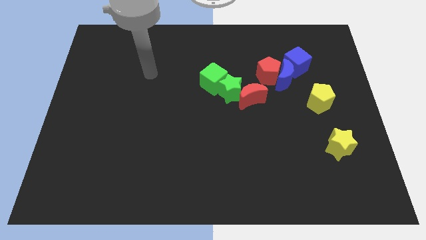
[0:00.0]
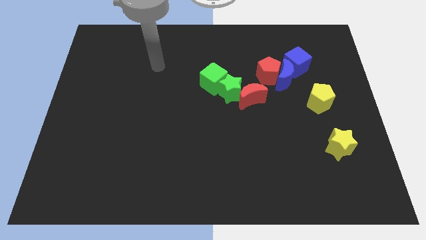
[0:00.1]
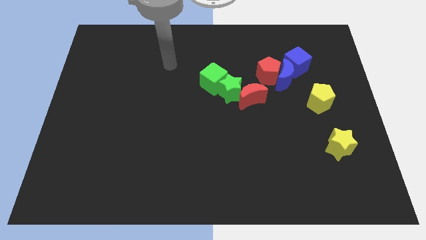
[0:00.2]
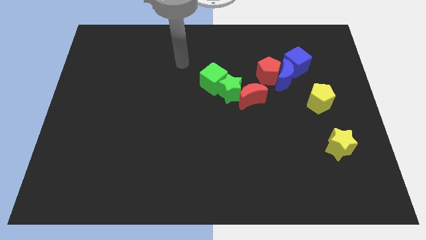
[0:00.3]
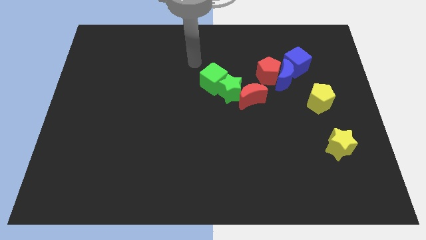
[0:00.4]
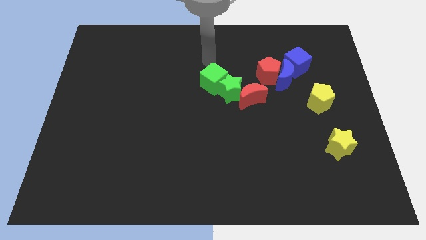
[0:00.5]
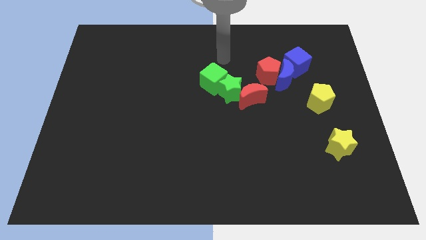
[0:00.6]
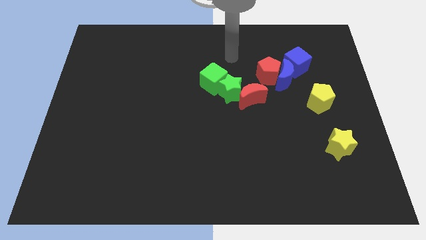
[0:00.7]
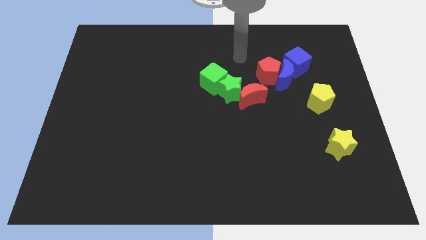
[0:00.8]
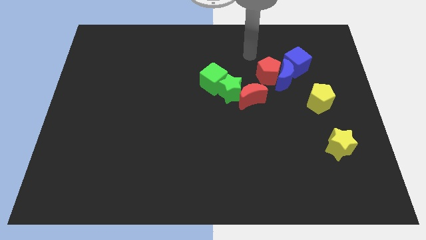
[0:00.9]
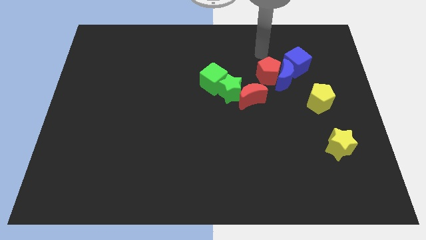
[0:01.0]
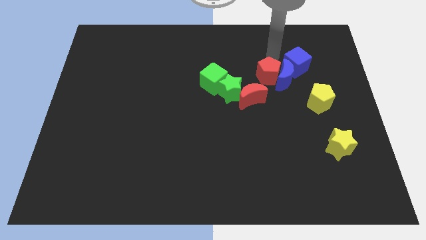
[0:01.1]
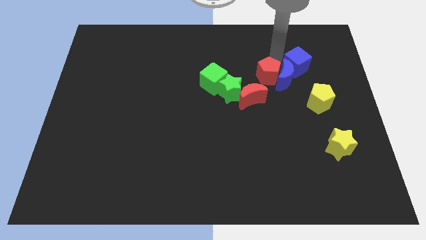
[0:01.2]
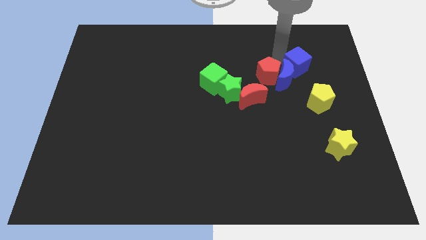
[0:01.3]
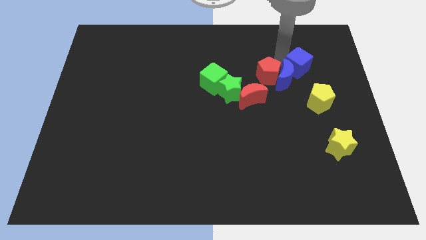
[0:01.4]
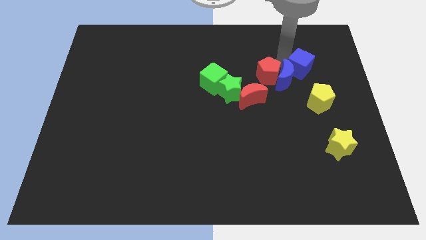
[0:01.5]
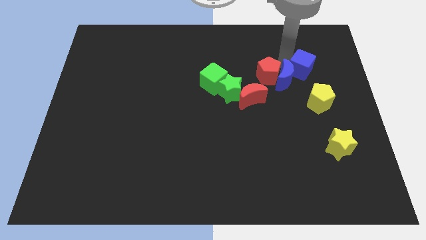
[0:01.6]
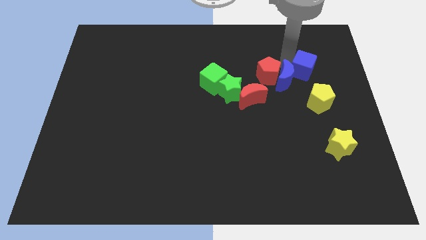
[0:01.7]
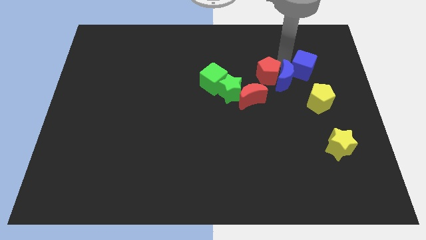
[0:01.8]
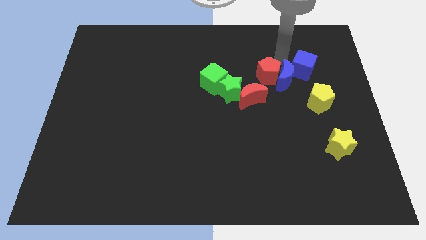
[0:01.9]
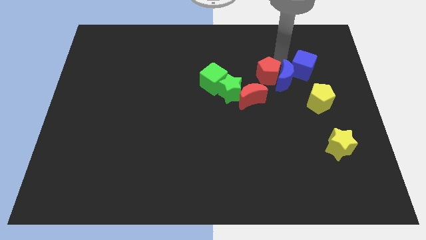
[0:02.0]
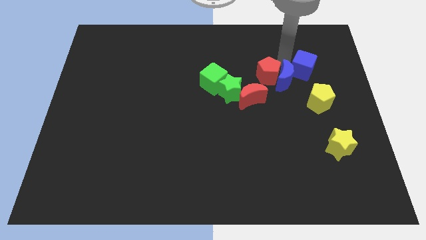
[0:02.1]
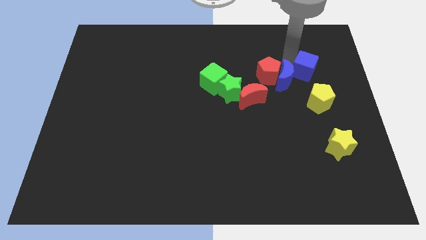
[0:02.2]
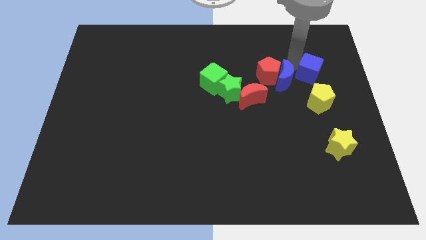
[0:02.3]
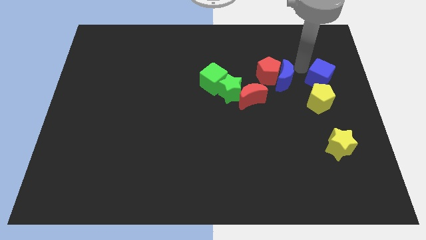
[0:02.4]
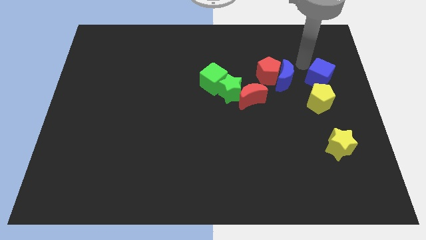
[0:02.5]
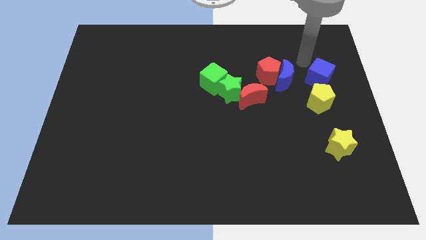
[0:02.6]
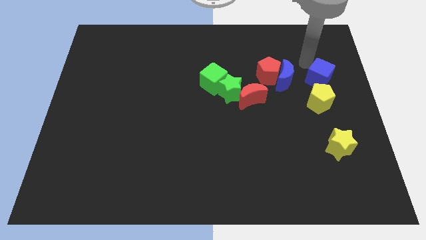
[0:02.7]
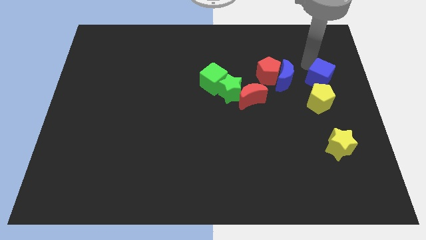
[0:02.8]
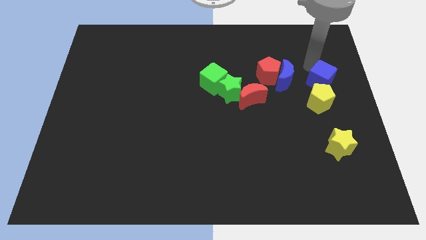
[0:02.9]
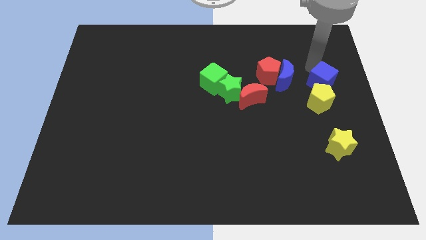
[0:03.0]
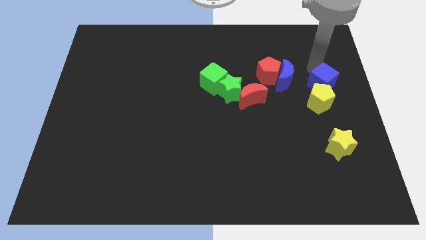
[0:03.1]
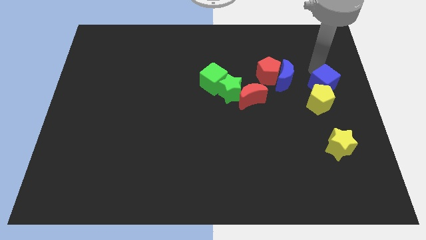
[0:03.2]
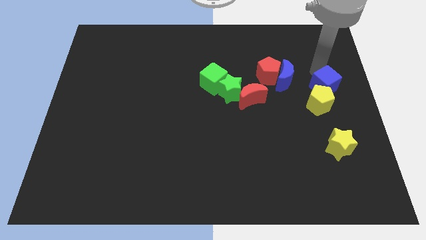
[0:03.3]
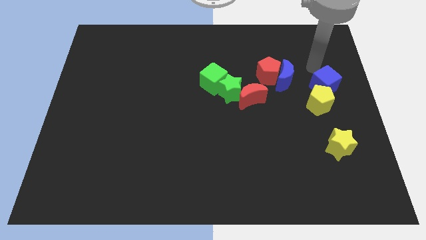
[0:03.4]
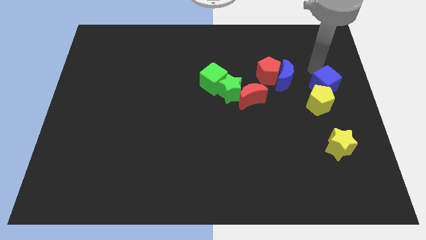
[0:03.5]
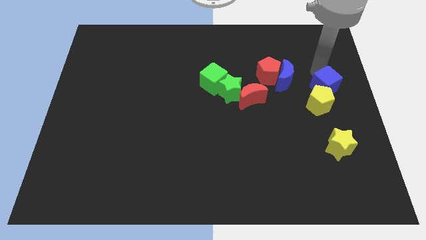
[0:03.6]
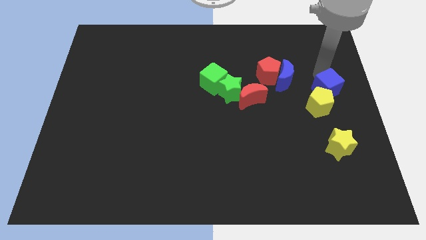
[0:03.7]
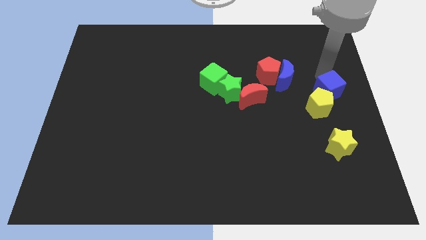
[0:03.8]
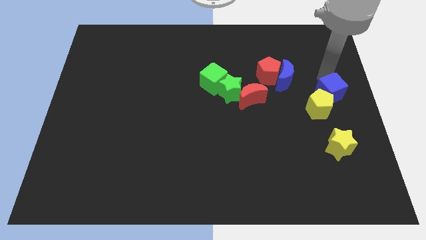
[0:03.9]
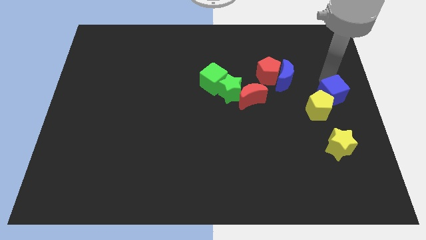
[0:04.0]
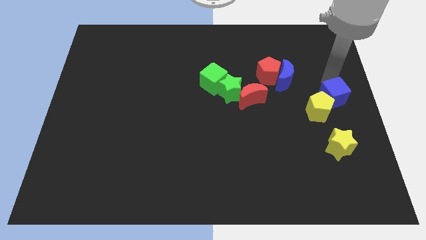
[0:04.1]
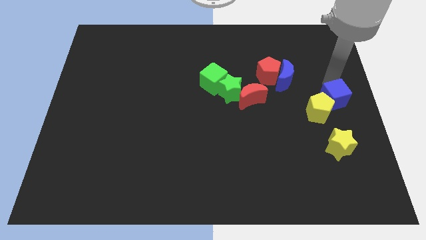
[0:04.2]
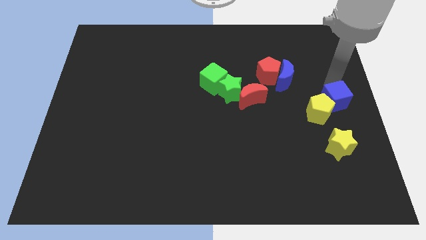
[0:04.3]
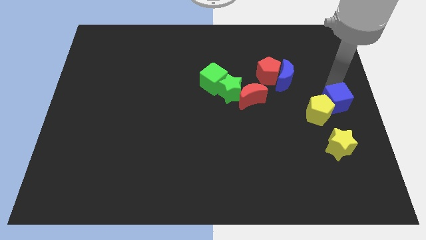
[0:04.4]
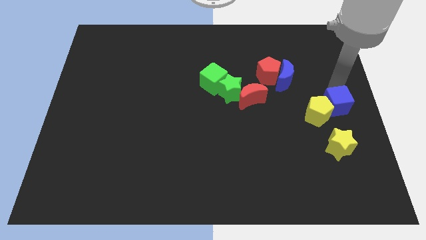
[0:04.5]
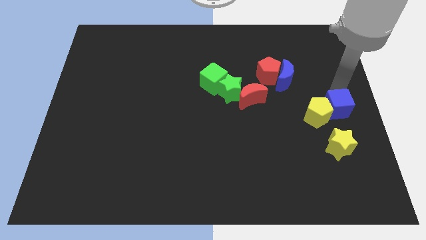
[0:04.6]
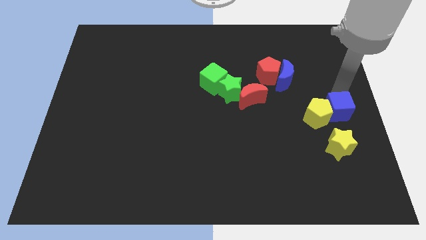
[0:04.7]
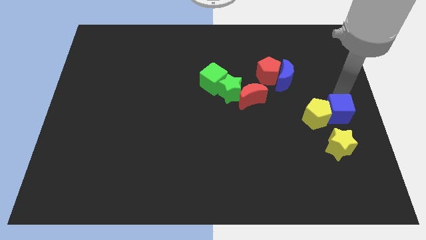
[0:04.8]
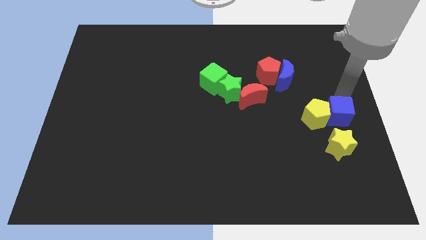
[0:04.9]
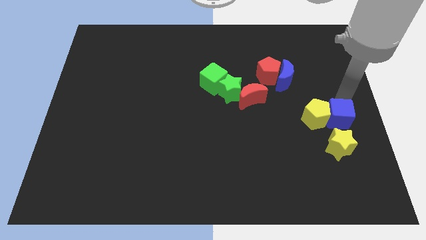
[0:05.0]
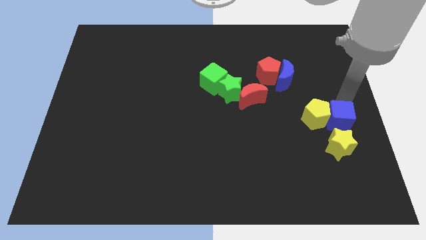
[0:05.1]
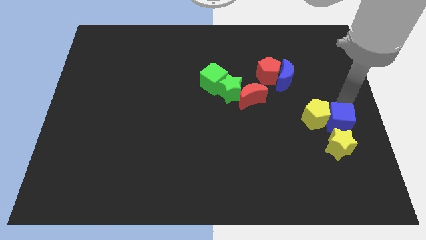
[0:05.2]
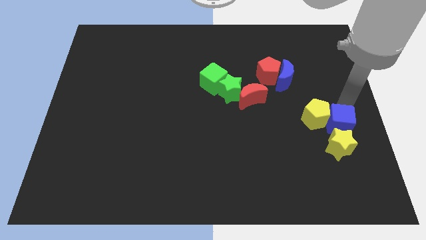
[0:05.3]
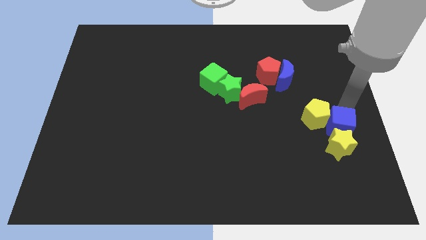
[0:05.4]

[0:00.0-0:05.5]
push the blue cube to the yellow star

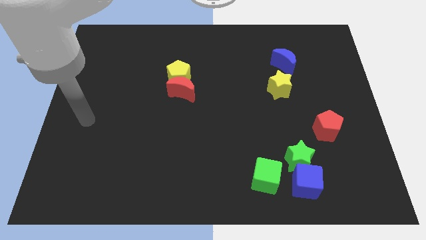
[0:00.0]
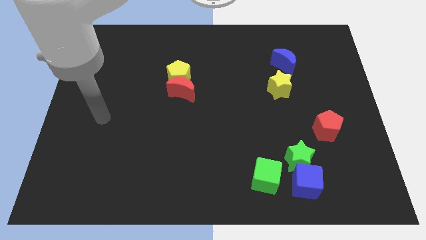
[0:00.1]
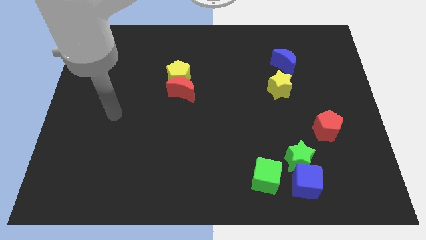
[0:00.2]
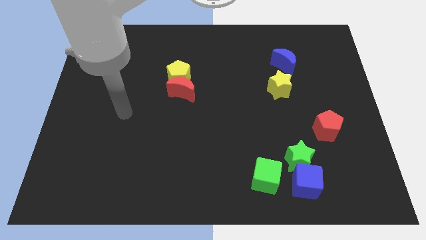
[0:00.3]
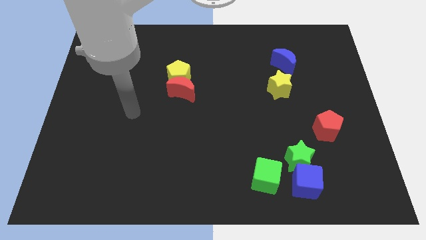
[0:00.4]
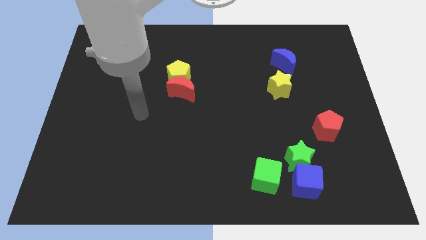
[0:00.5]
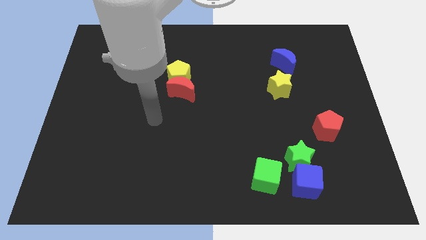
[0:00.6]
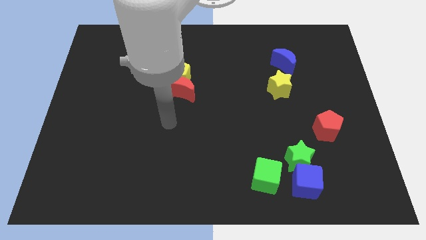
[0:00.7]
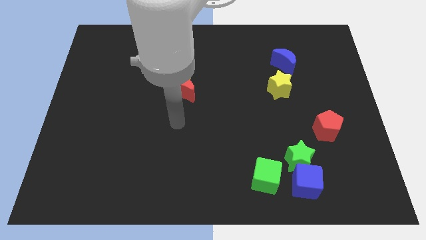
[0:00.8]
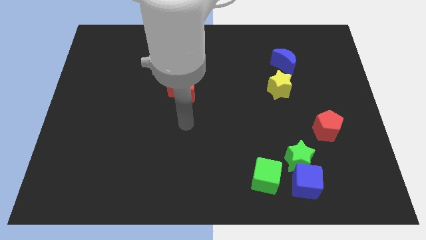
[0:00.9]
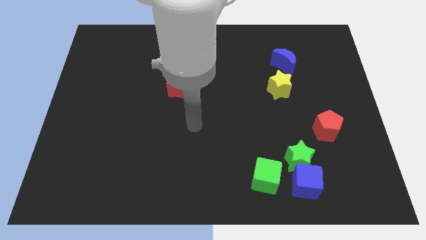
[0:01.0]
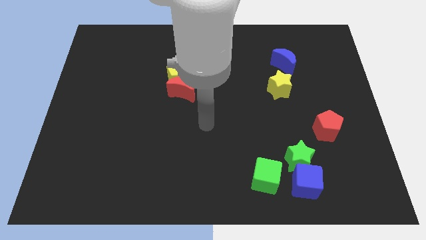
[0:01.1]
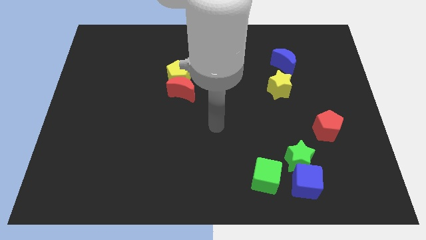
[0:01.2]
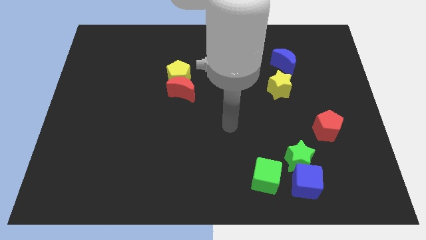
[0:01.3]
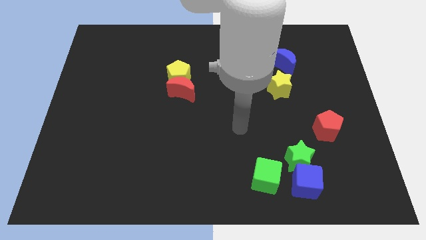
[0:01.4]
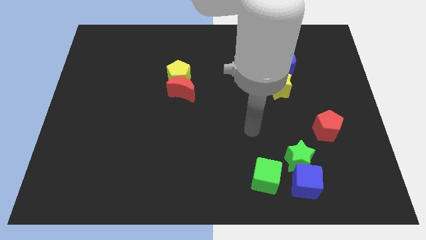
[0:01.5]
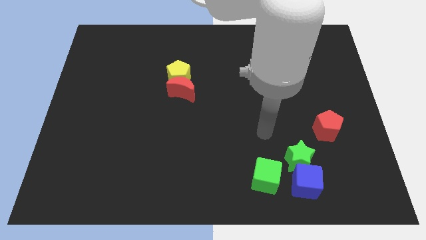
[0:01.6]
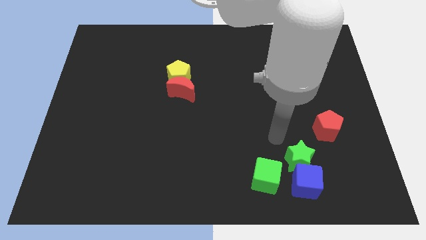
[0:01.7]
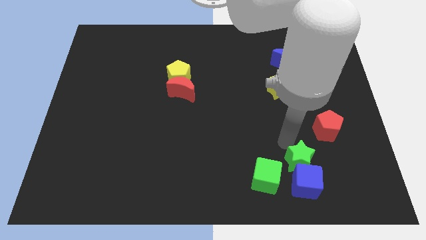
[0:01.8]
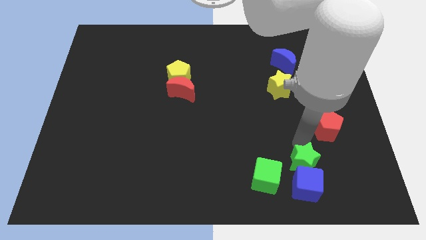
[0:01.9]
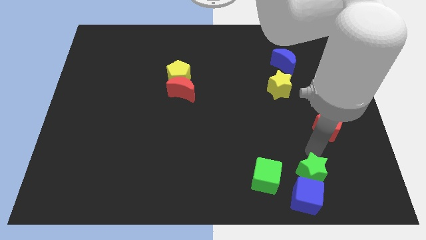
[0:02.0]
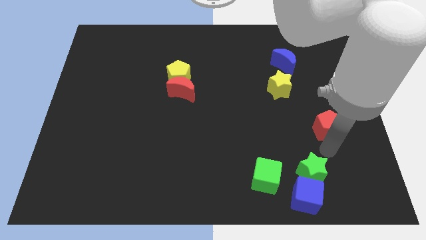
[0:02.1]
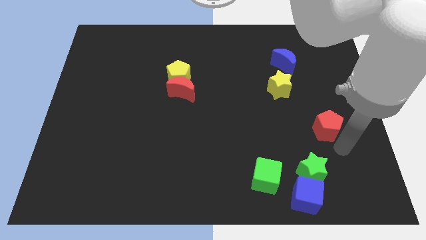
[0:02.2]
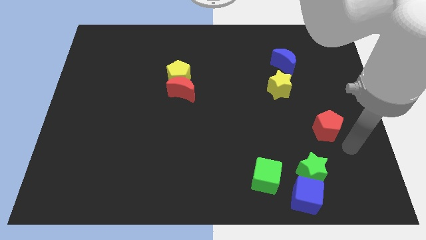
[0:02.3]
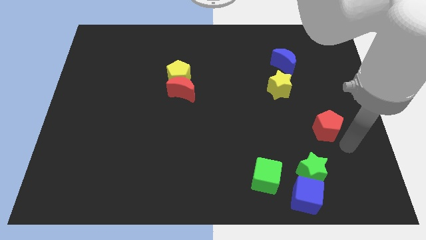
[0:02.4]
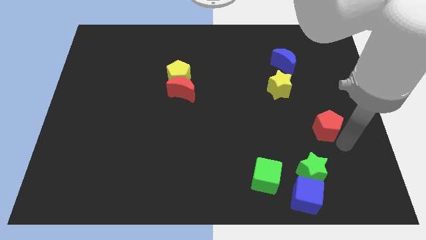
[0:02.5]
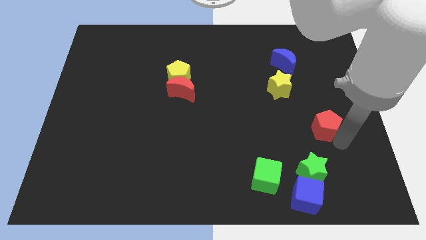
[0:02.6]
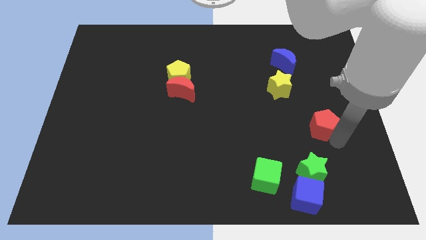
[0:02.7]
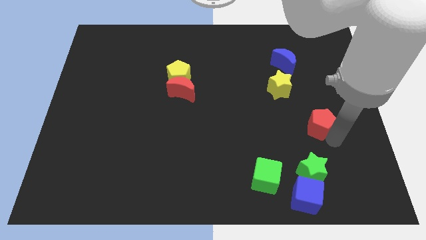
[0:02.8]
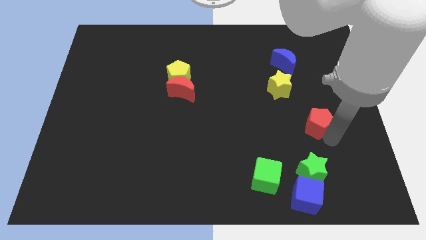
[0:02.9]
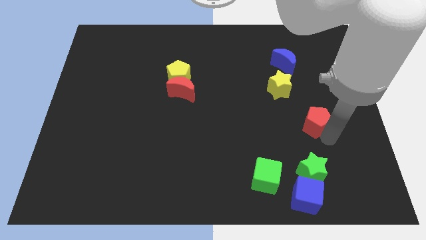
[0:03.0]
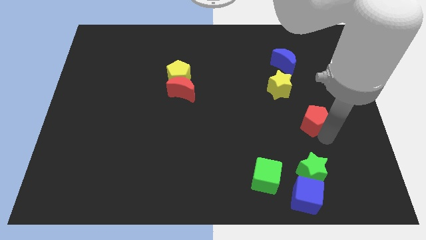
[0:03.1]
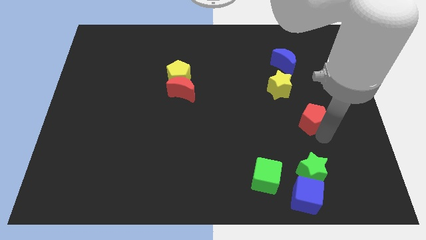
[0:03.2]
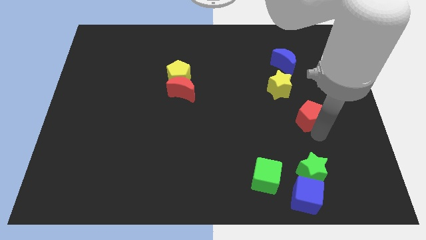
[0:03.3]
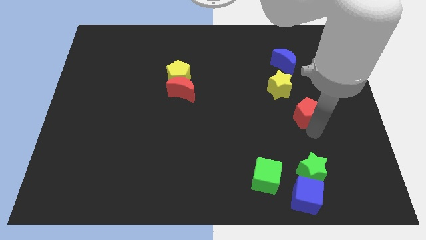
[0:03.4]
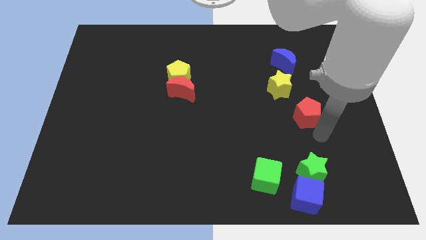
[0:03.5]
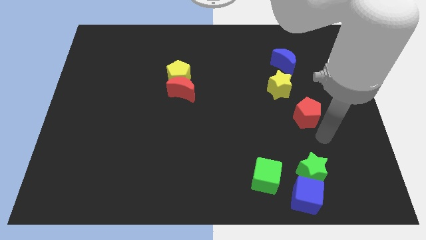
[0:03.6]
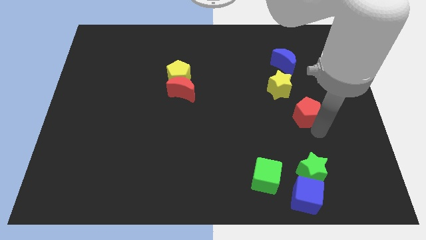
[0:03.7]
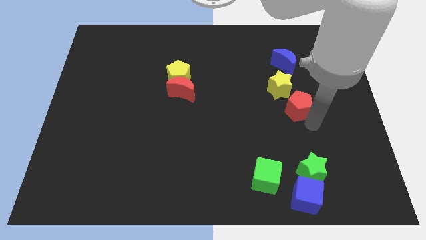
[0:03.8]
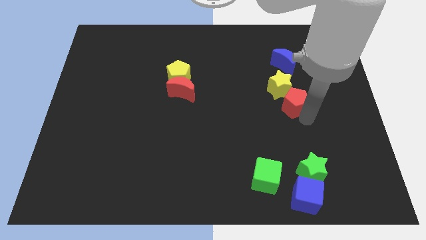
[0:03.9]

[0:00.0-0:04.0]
push the red pentagon to the yellow star
